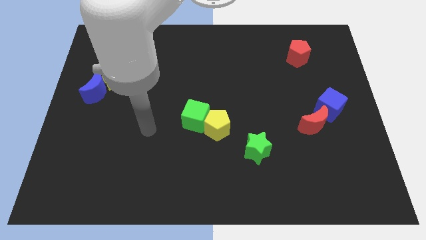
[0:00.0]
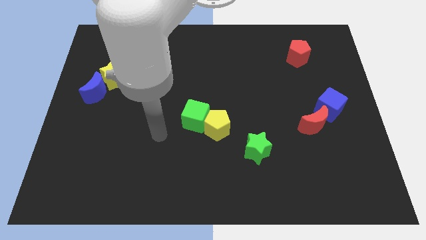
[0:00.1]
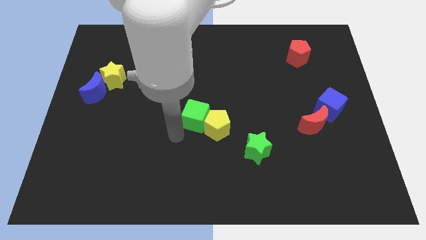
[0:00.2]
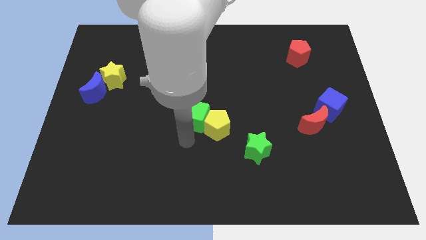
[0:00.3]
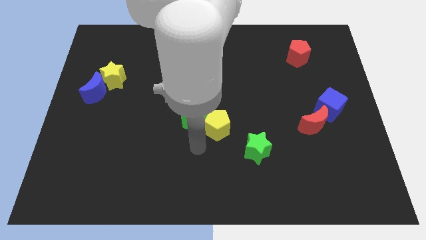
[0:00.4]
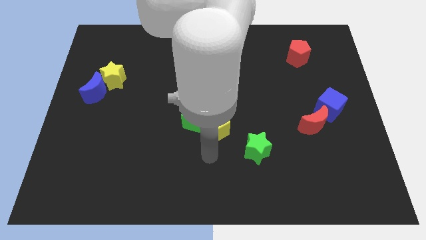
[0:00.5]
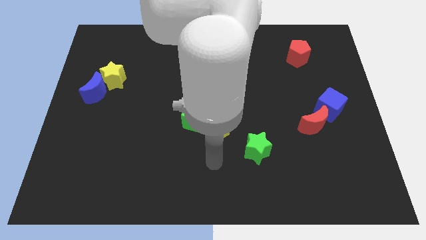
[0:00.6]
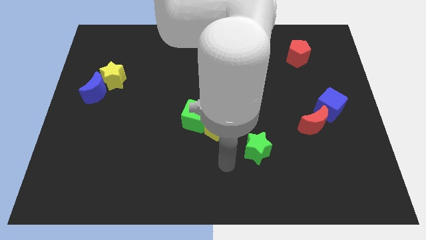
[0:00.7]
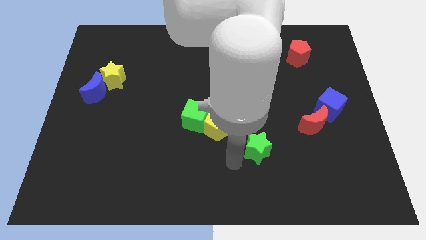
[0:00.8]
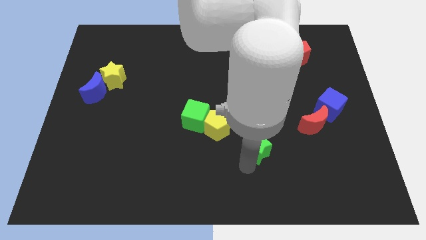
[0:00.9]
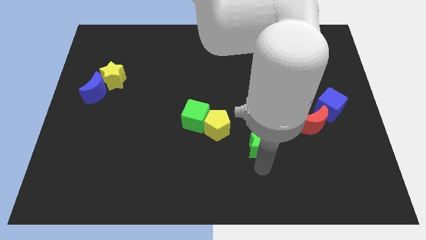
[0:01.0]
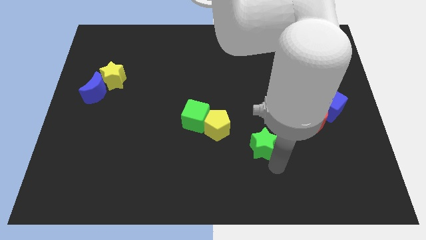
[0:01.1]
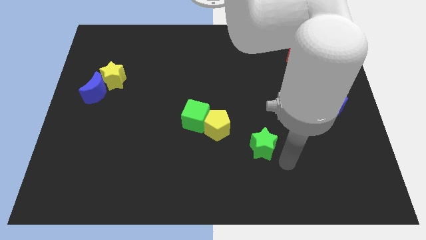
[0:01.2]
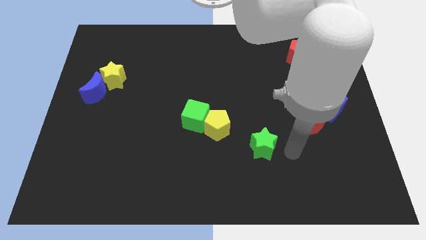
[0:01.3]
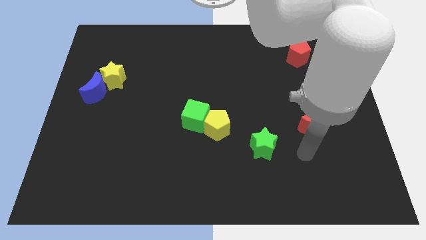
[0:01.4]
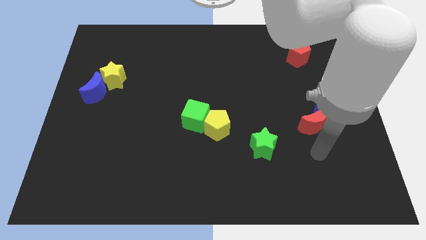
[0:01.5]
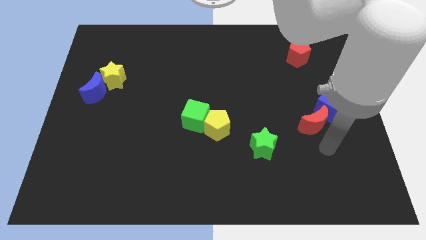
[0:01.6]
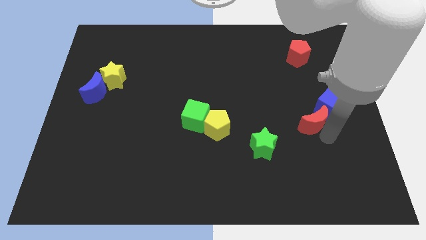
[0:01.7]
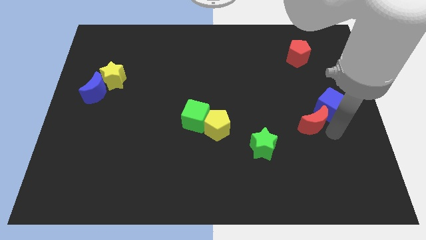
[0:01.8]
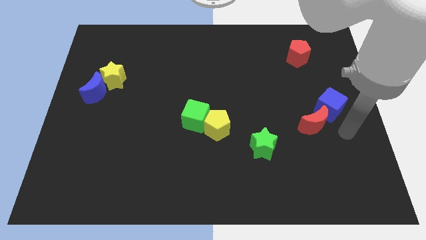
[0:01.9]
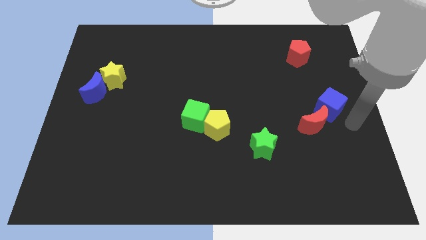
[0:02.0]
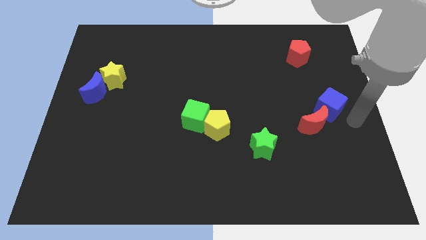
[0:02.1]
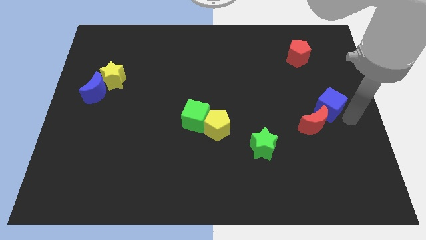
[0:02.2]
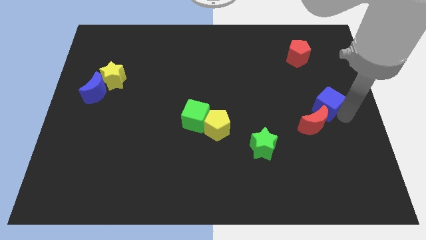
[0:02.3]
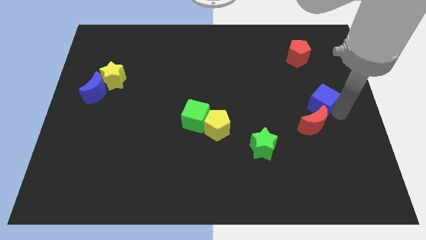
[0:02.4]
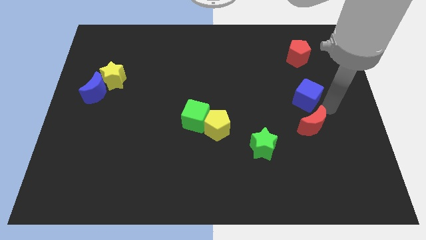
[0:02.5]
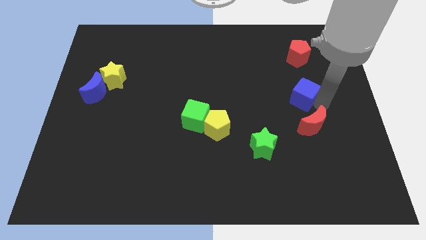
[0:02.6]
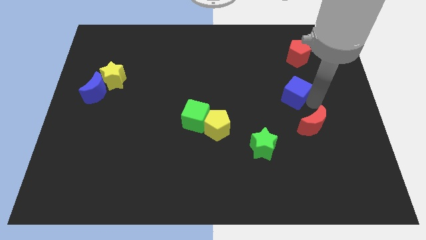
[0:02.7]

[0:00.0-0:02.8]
slide the blue cube up and then to the left a little

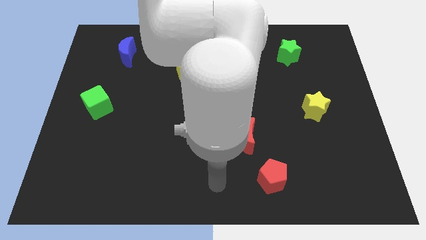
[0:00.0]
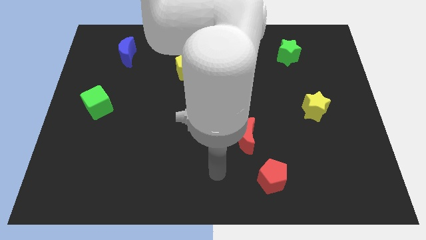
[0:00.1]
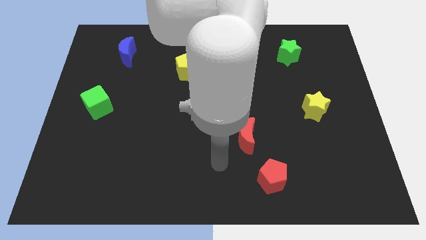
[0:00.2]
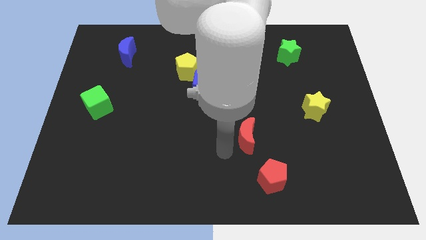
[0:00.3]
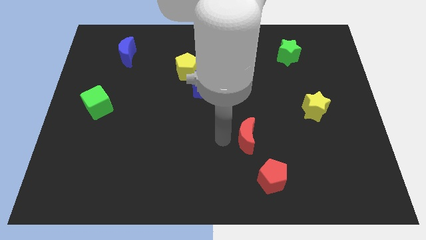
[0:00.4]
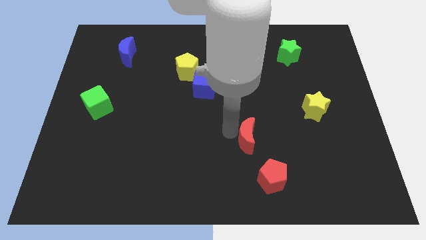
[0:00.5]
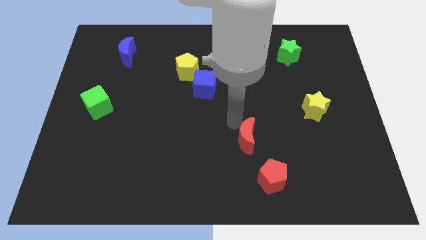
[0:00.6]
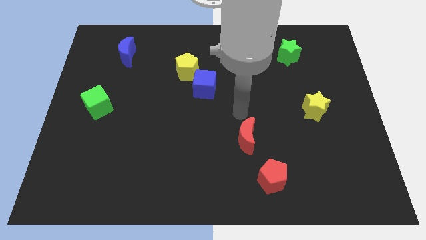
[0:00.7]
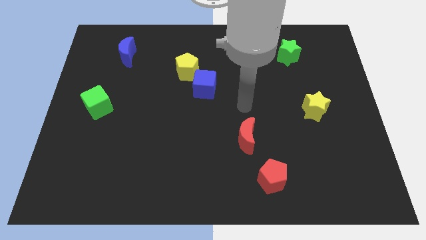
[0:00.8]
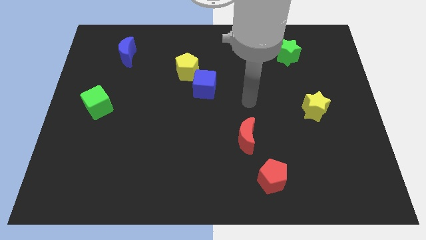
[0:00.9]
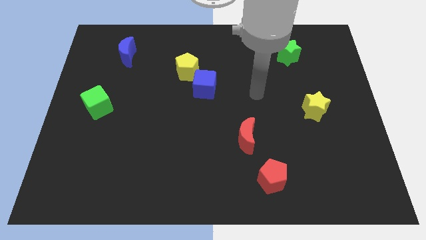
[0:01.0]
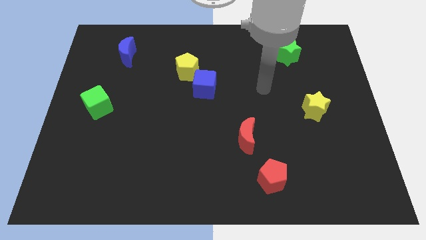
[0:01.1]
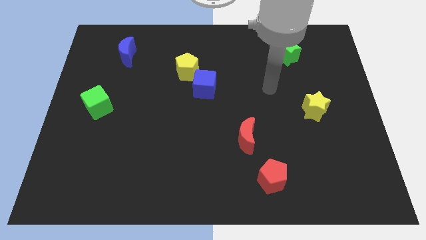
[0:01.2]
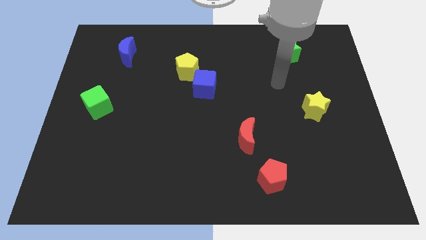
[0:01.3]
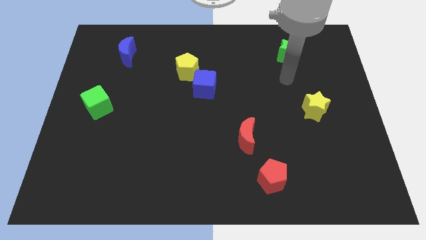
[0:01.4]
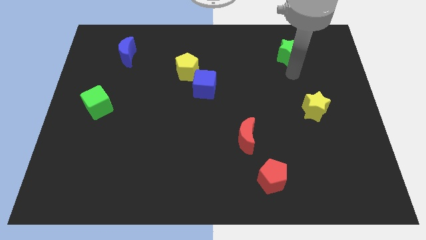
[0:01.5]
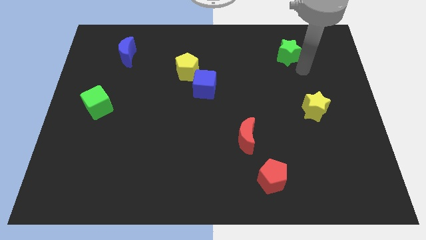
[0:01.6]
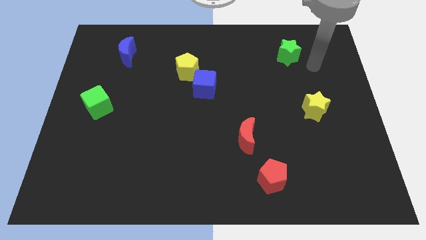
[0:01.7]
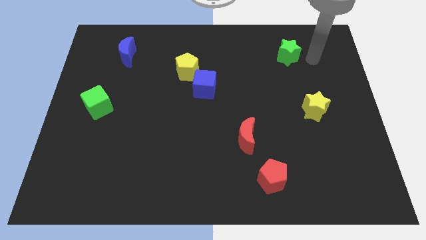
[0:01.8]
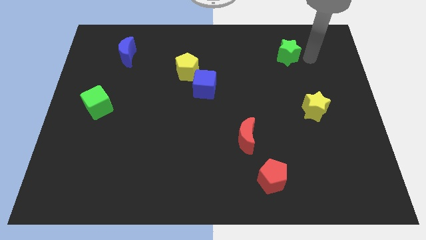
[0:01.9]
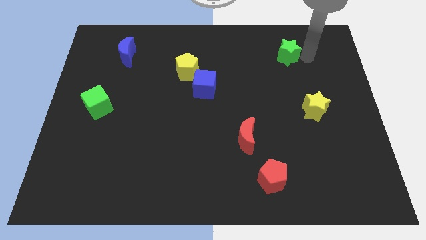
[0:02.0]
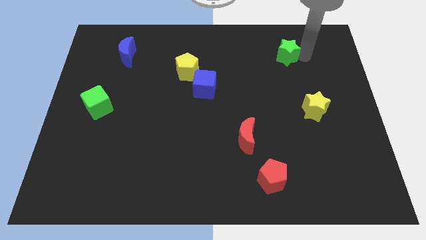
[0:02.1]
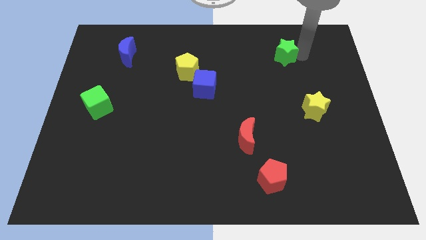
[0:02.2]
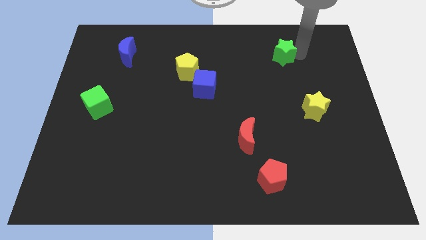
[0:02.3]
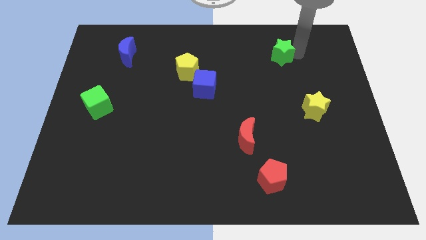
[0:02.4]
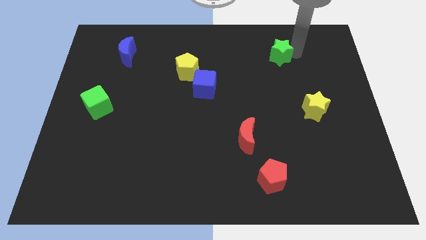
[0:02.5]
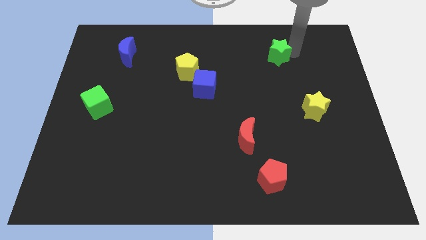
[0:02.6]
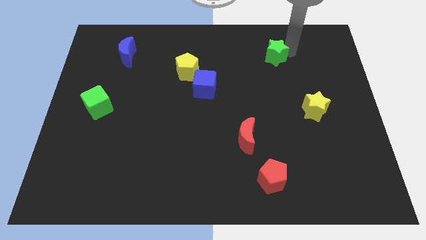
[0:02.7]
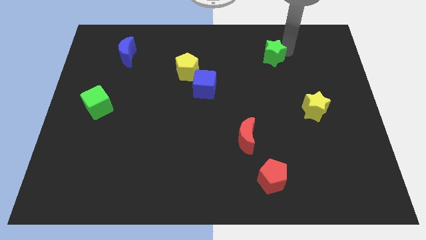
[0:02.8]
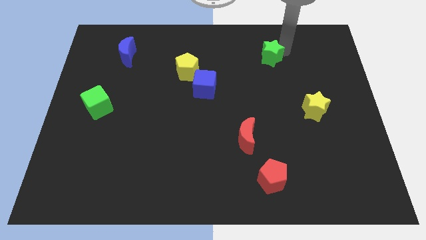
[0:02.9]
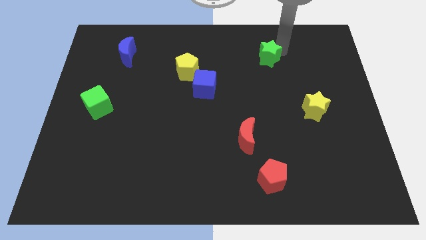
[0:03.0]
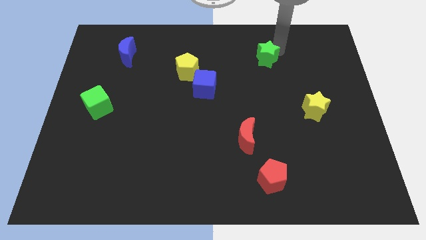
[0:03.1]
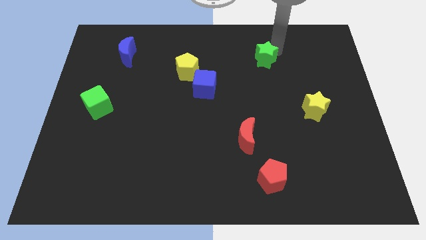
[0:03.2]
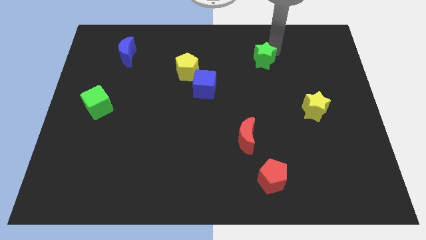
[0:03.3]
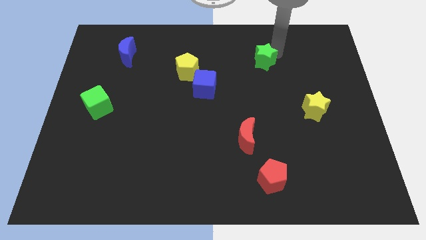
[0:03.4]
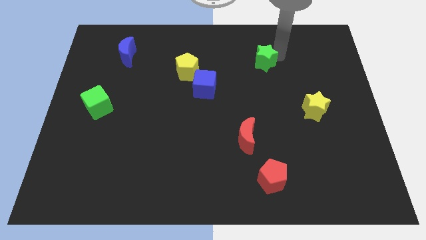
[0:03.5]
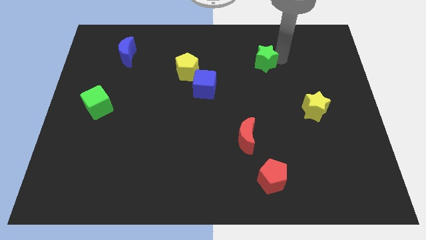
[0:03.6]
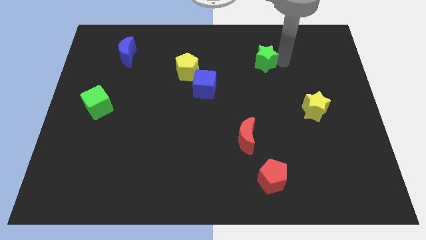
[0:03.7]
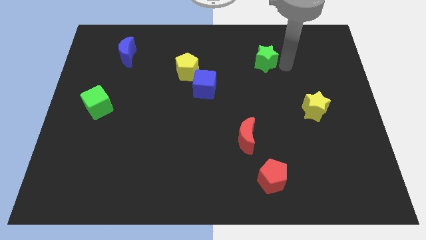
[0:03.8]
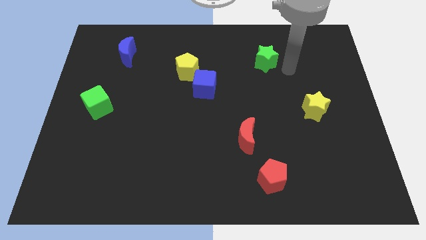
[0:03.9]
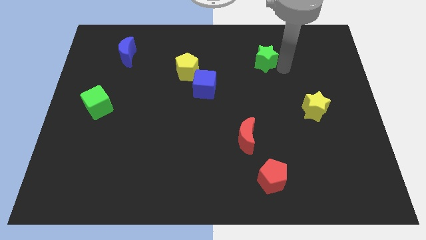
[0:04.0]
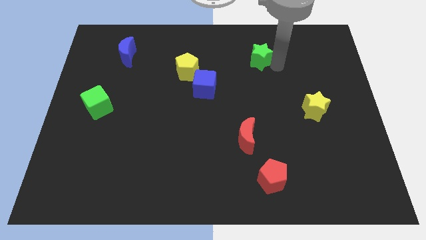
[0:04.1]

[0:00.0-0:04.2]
move the green star to the left slightly

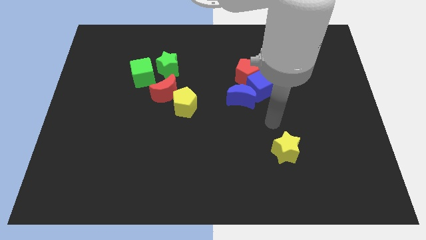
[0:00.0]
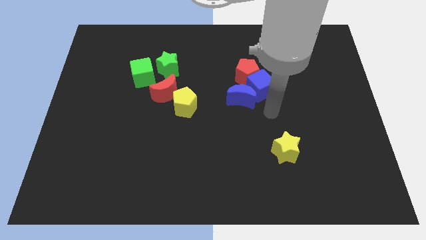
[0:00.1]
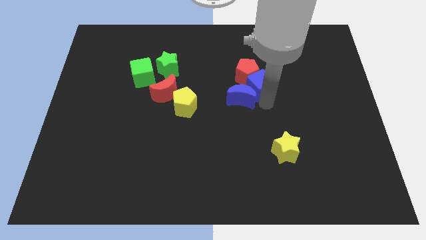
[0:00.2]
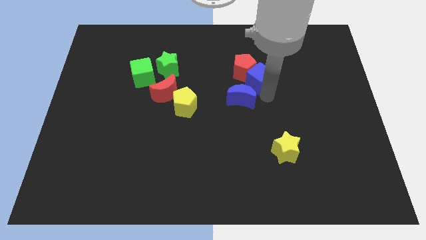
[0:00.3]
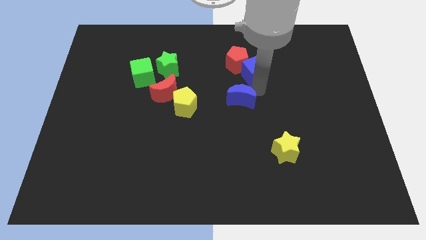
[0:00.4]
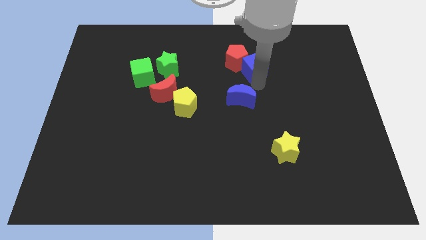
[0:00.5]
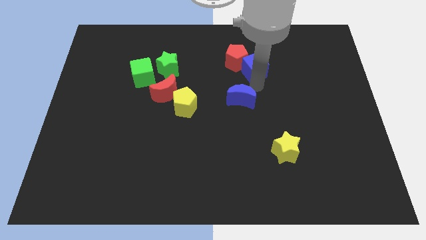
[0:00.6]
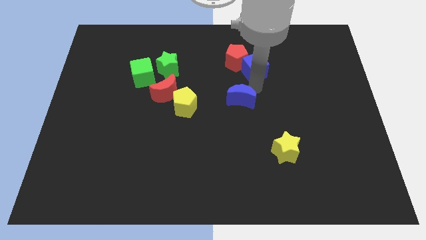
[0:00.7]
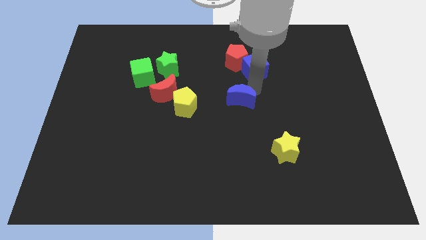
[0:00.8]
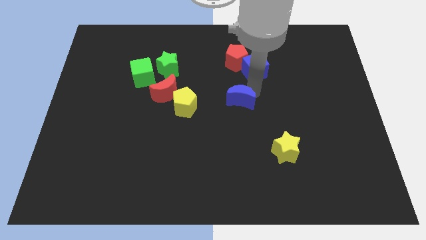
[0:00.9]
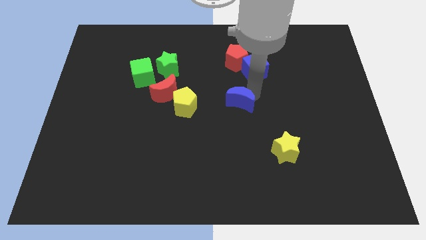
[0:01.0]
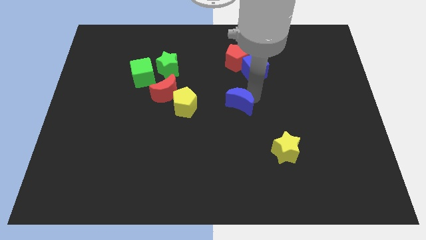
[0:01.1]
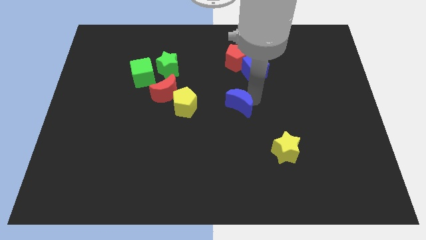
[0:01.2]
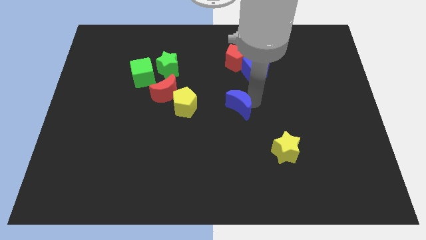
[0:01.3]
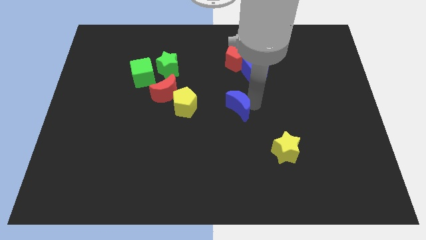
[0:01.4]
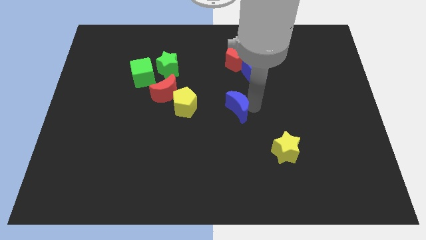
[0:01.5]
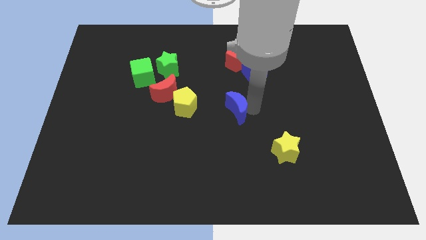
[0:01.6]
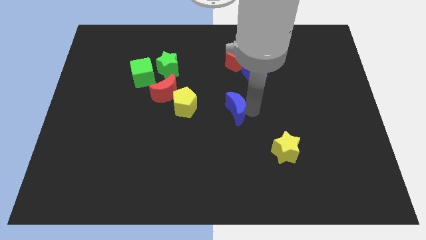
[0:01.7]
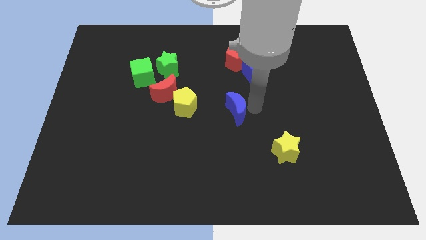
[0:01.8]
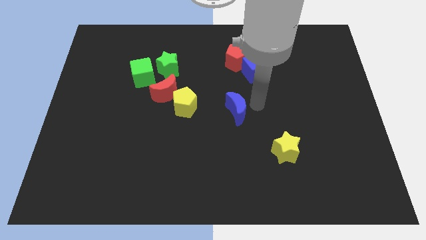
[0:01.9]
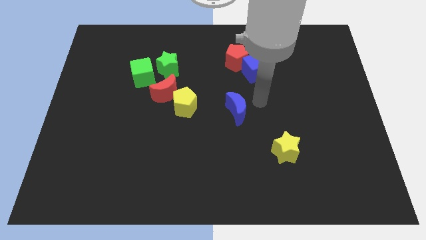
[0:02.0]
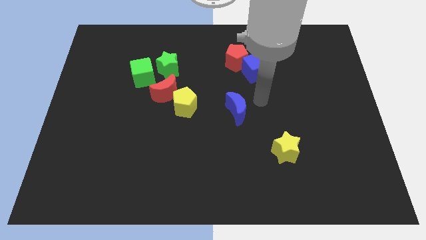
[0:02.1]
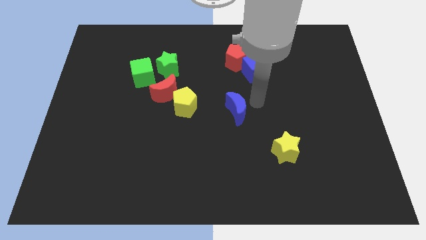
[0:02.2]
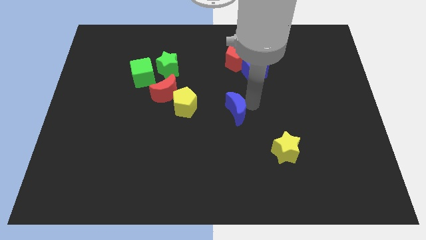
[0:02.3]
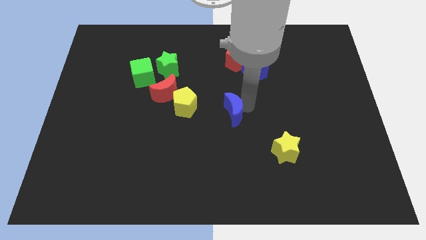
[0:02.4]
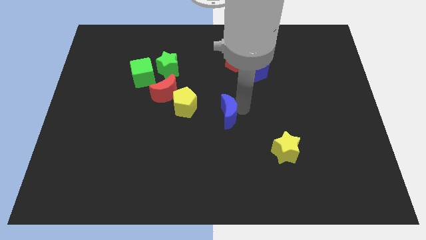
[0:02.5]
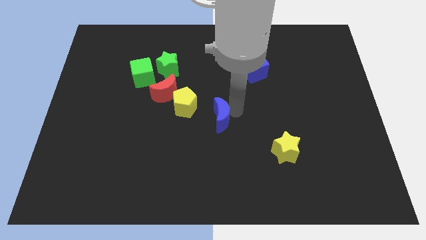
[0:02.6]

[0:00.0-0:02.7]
push the blue moon downwards and then to the left slightly
